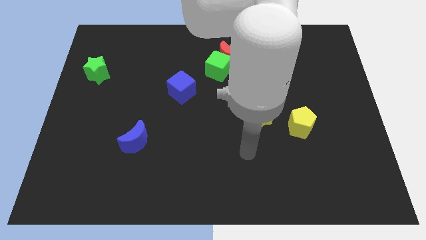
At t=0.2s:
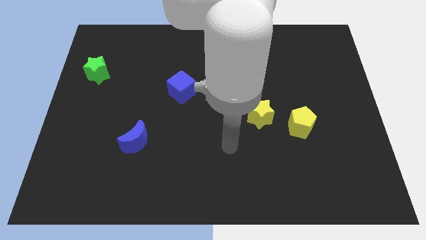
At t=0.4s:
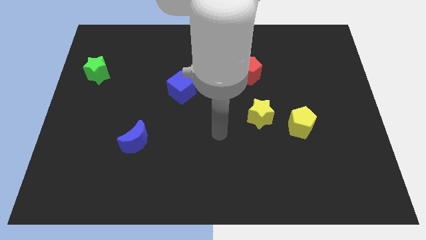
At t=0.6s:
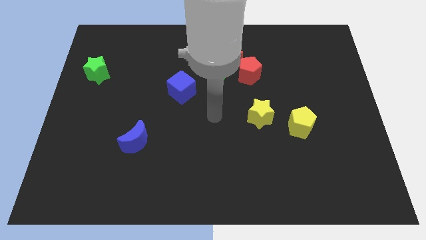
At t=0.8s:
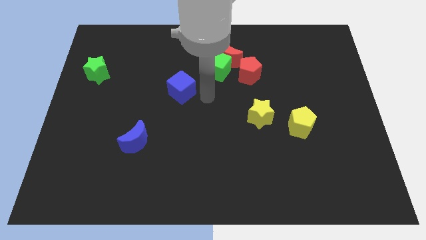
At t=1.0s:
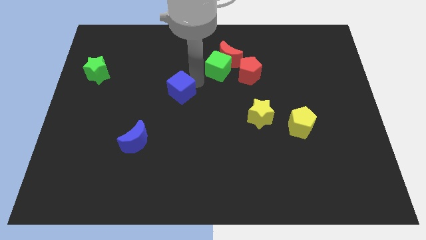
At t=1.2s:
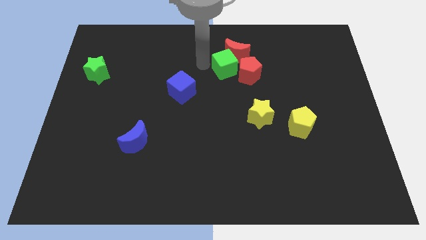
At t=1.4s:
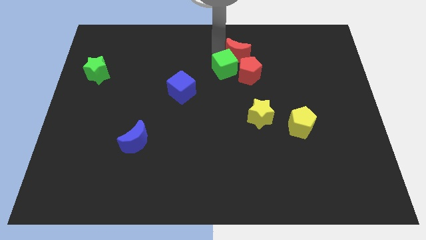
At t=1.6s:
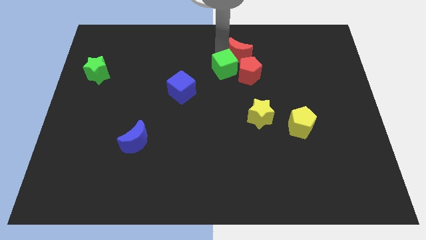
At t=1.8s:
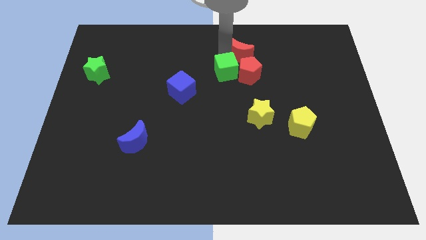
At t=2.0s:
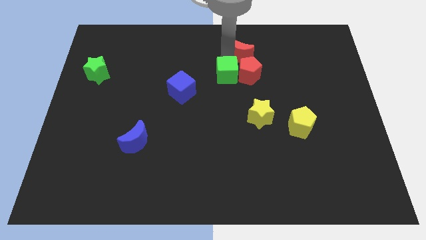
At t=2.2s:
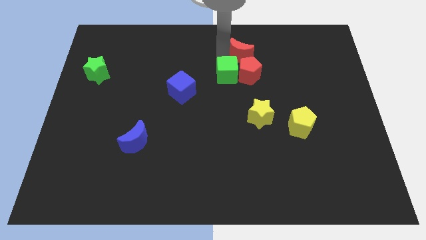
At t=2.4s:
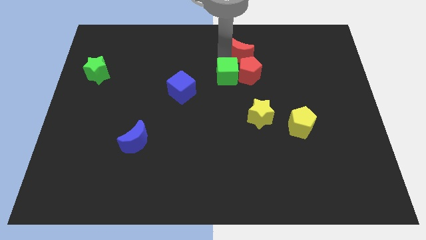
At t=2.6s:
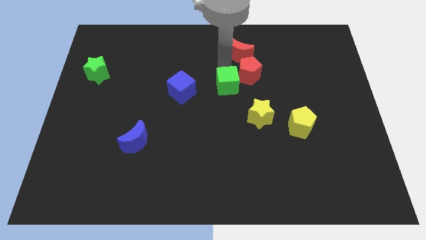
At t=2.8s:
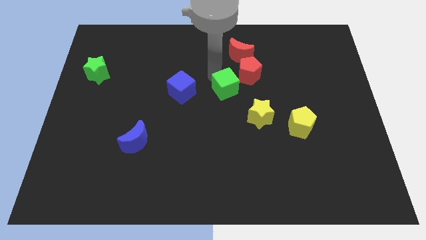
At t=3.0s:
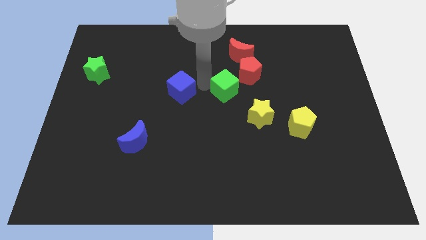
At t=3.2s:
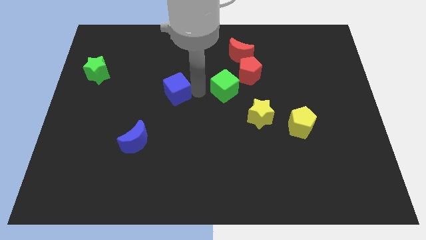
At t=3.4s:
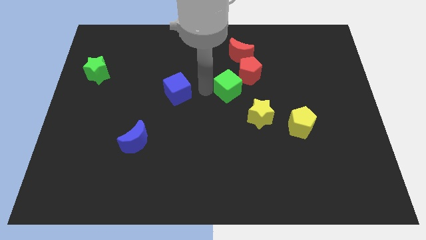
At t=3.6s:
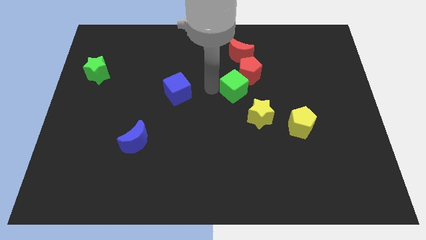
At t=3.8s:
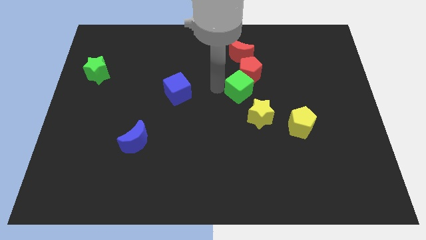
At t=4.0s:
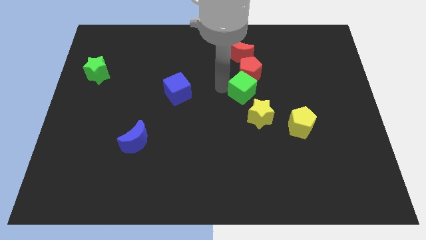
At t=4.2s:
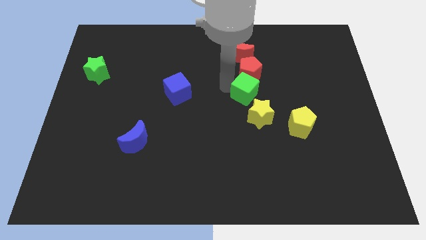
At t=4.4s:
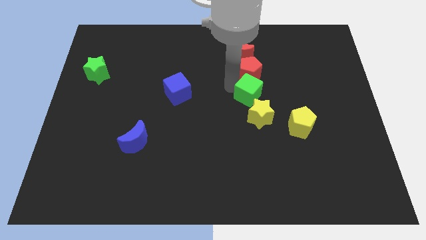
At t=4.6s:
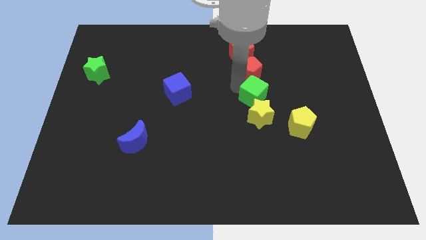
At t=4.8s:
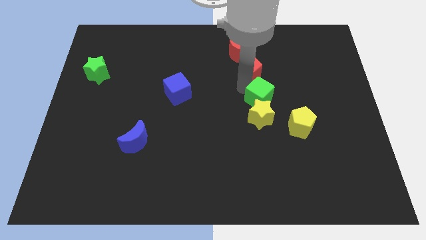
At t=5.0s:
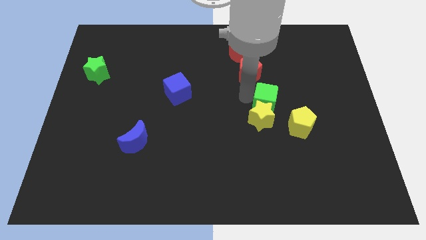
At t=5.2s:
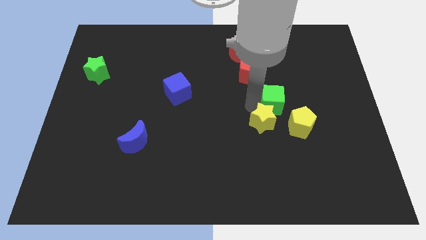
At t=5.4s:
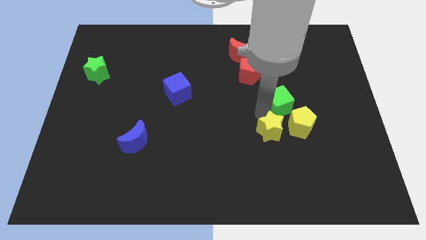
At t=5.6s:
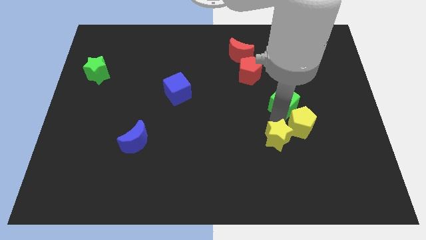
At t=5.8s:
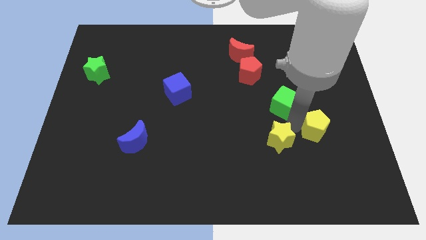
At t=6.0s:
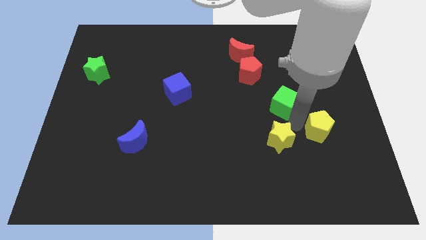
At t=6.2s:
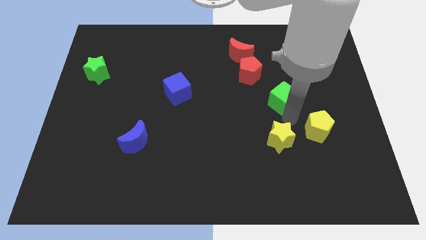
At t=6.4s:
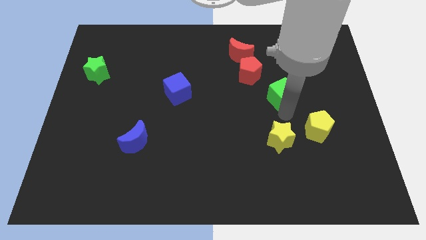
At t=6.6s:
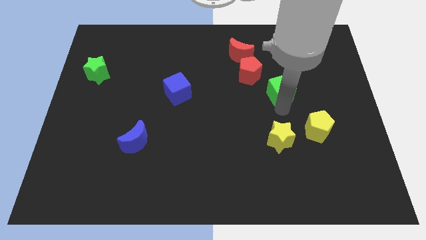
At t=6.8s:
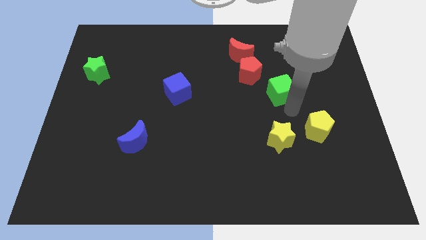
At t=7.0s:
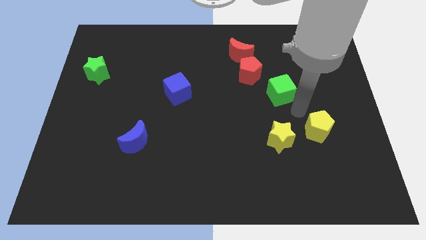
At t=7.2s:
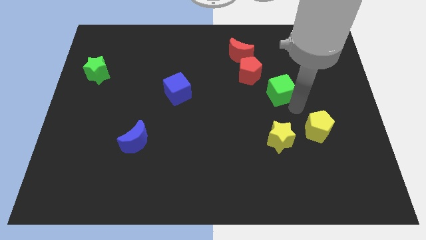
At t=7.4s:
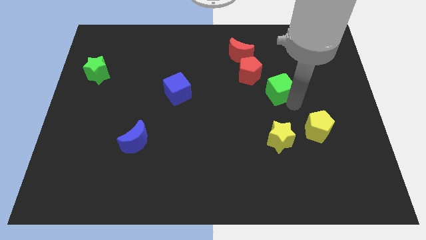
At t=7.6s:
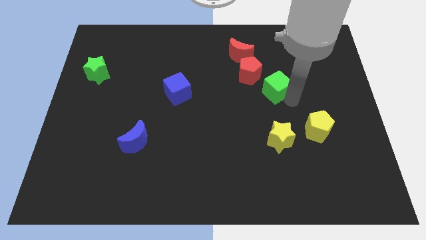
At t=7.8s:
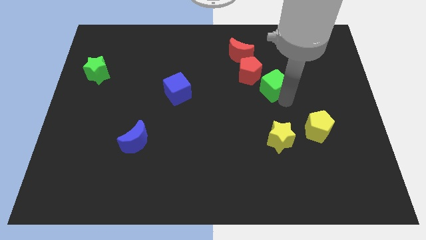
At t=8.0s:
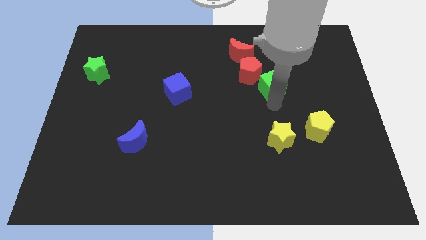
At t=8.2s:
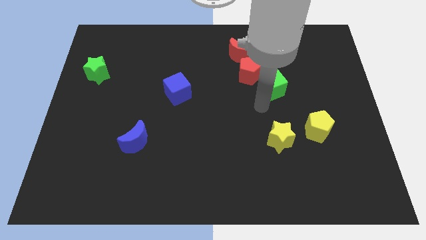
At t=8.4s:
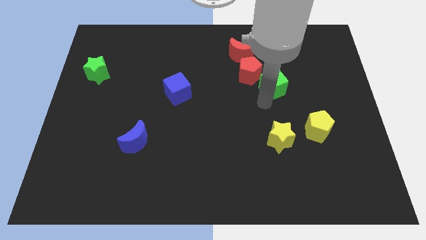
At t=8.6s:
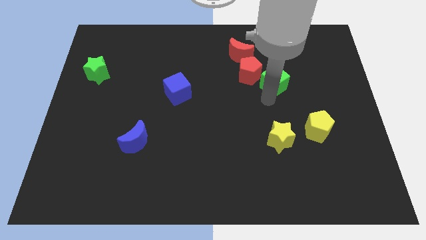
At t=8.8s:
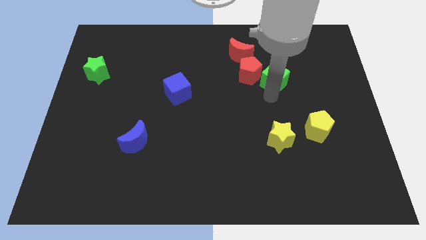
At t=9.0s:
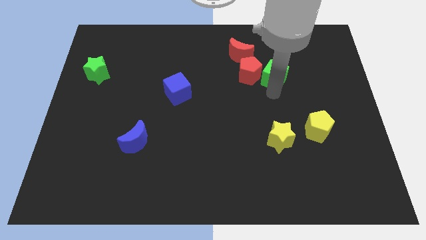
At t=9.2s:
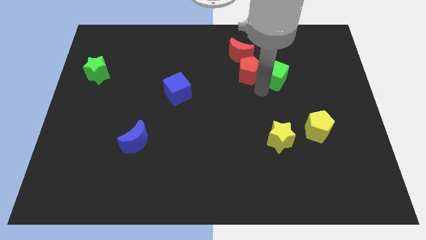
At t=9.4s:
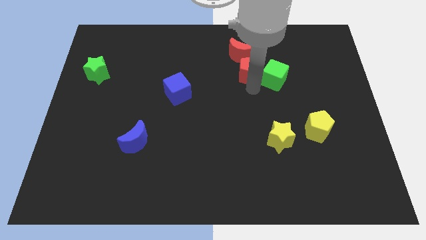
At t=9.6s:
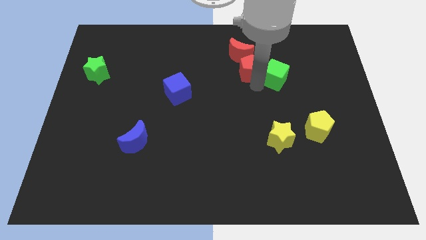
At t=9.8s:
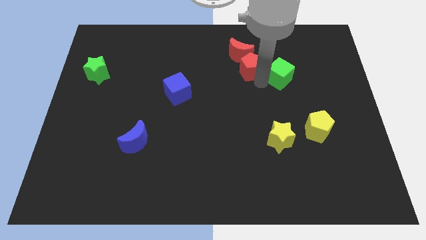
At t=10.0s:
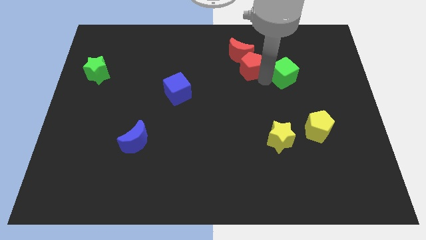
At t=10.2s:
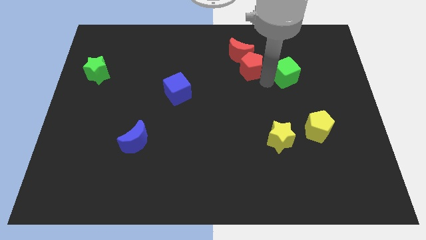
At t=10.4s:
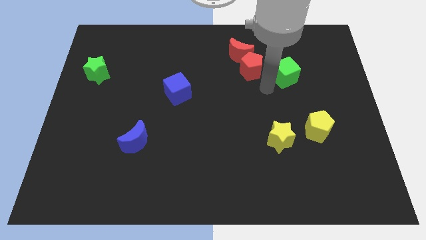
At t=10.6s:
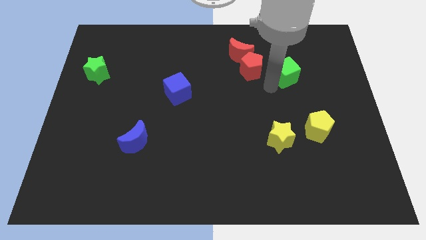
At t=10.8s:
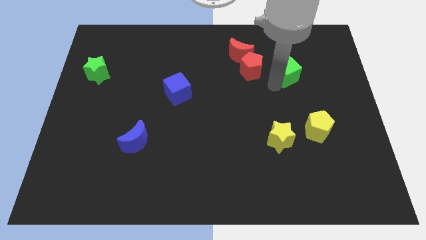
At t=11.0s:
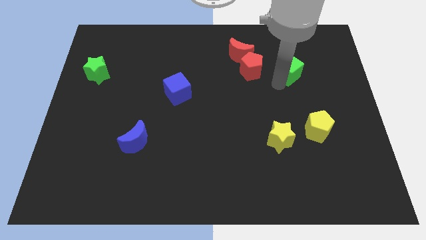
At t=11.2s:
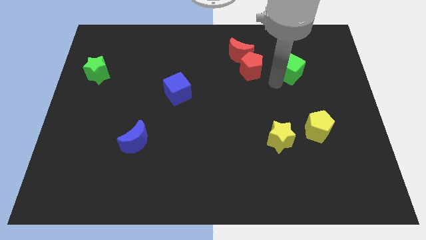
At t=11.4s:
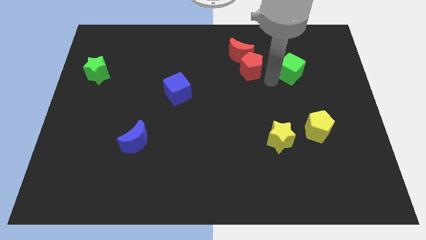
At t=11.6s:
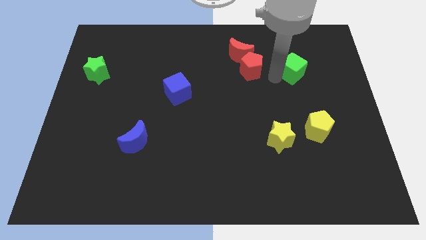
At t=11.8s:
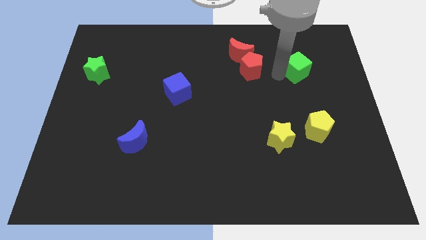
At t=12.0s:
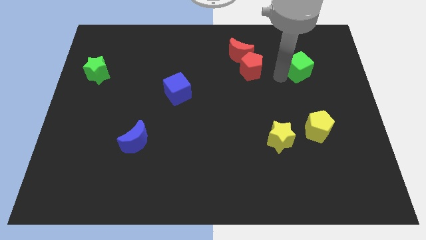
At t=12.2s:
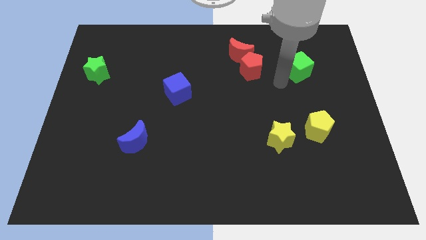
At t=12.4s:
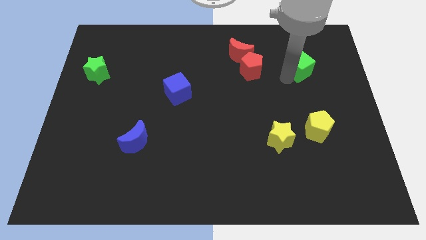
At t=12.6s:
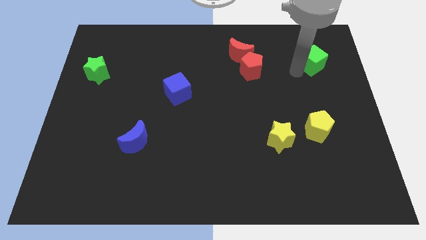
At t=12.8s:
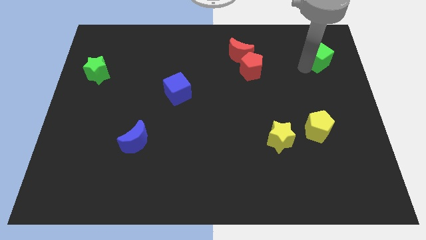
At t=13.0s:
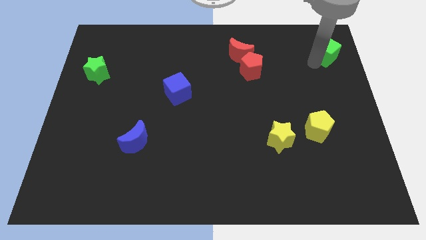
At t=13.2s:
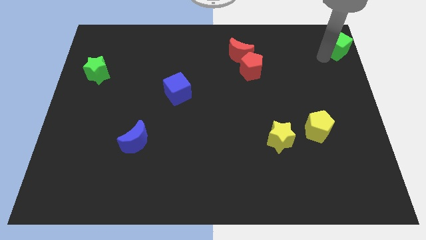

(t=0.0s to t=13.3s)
move the green cube to the top right
